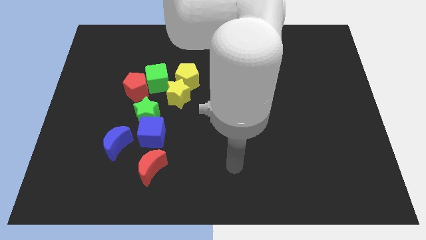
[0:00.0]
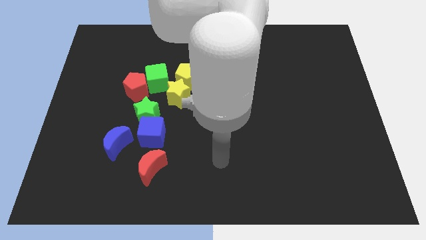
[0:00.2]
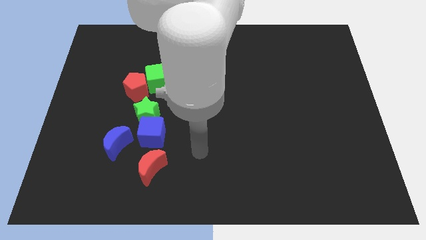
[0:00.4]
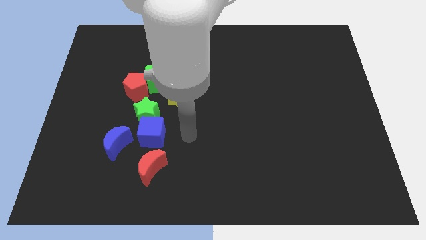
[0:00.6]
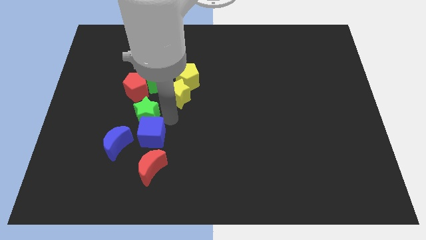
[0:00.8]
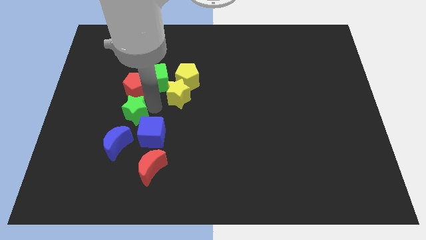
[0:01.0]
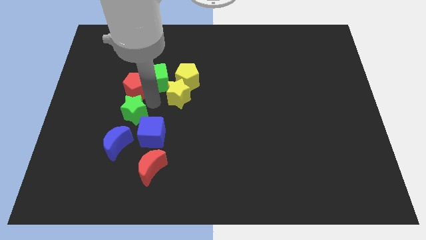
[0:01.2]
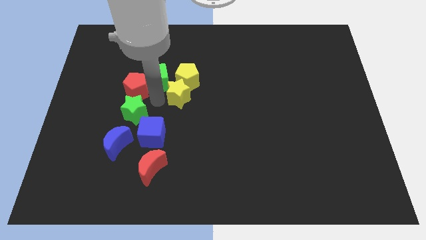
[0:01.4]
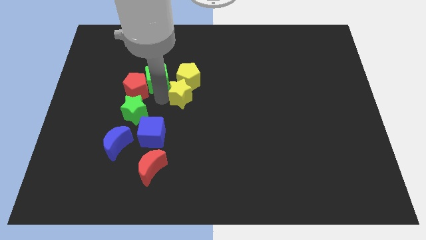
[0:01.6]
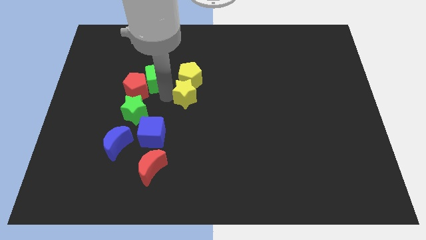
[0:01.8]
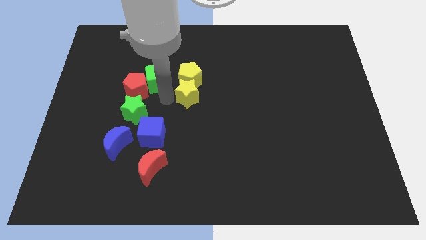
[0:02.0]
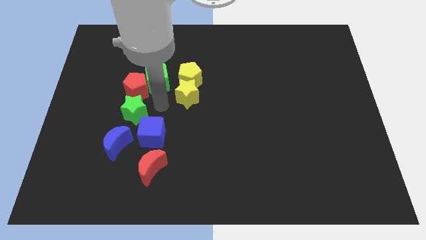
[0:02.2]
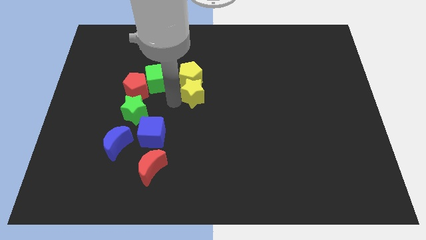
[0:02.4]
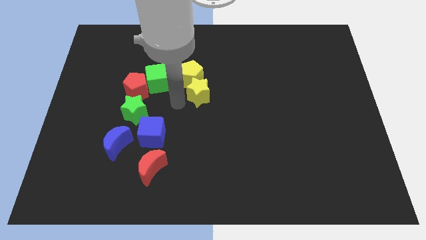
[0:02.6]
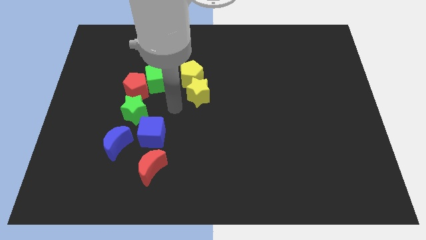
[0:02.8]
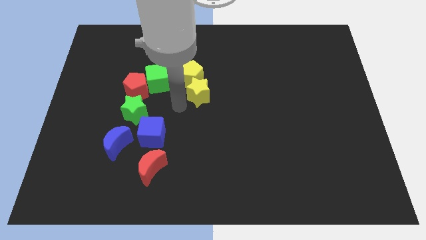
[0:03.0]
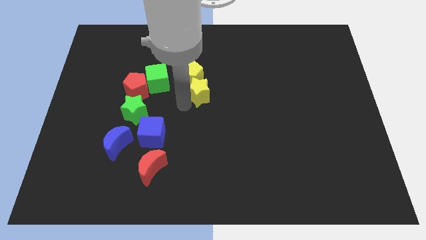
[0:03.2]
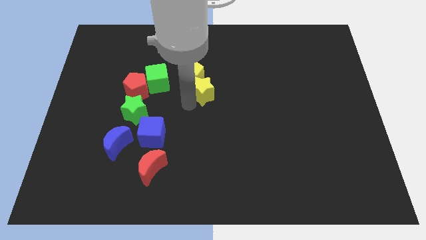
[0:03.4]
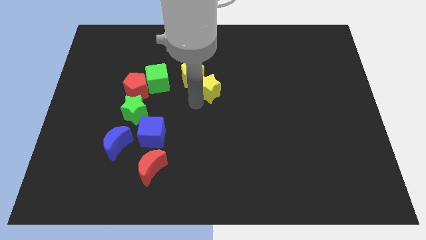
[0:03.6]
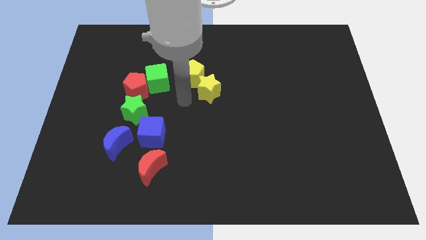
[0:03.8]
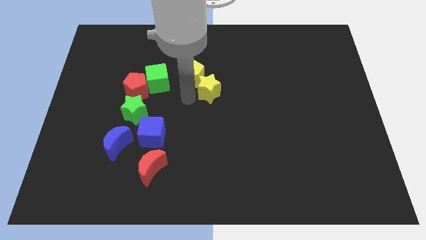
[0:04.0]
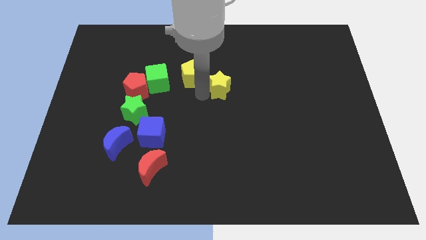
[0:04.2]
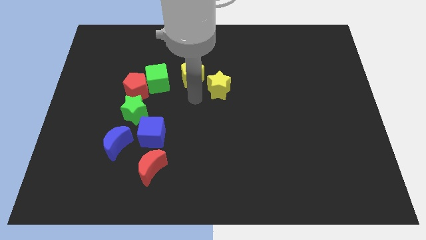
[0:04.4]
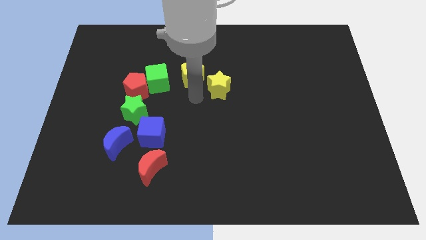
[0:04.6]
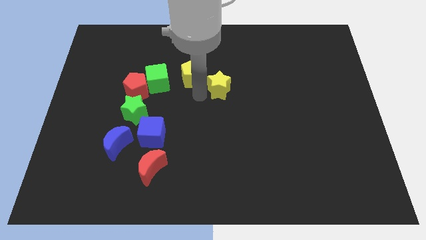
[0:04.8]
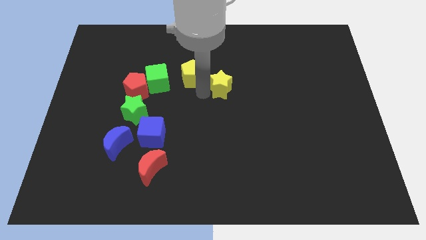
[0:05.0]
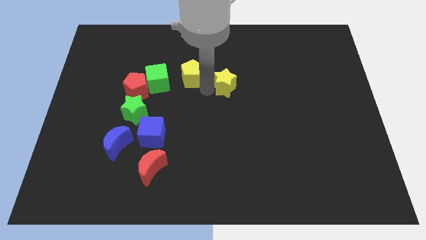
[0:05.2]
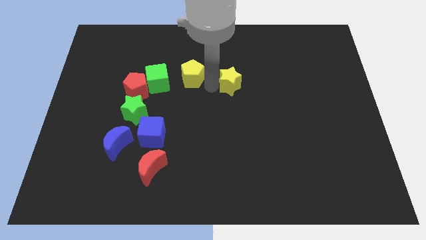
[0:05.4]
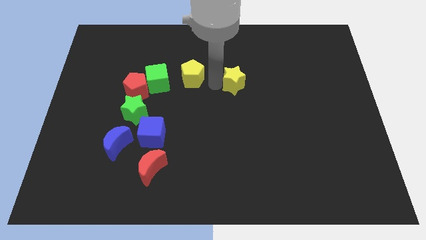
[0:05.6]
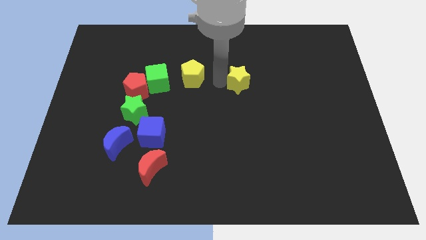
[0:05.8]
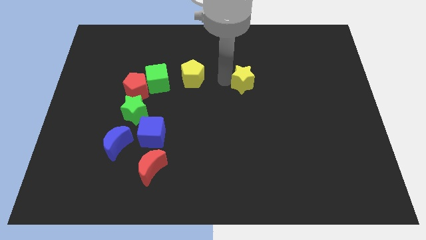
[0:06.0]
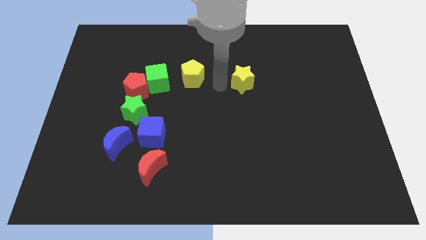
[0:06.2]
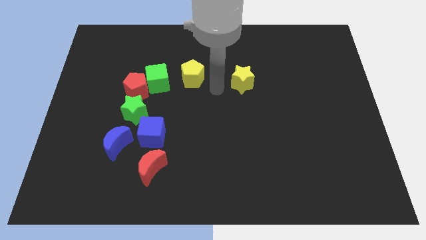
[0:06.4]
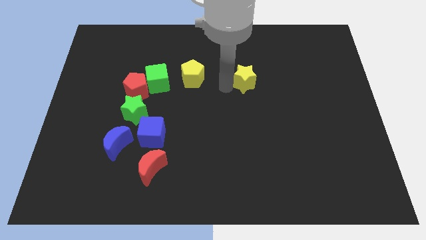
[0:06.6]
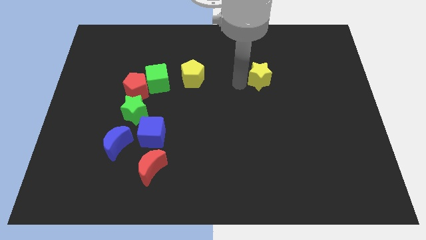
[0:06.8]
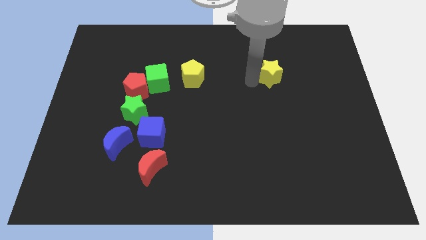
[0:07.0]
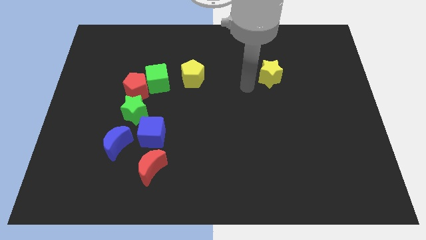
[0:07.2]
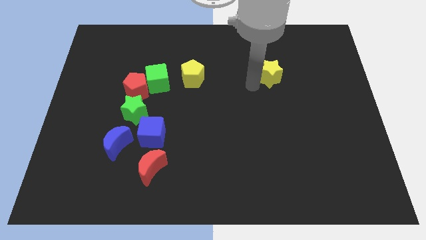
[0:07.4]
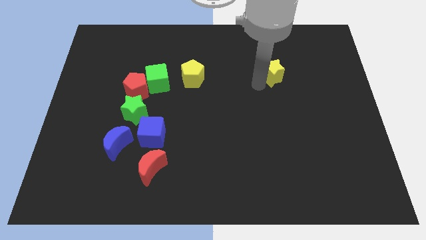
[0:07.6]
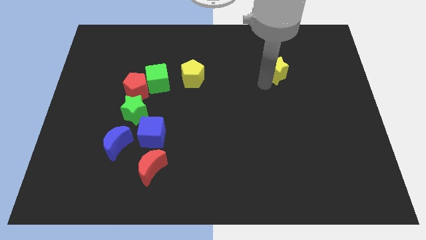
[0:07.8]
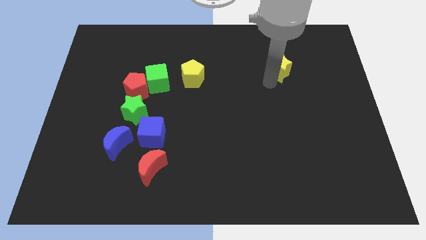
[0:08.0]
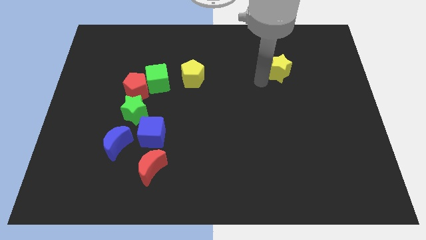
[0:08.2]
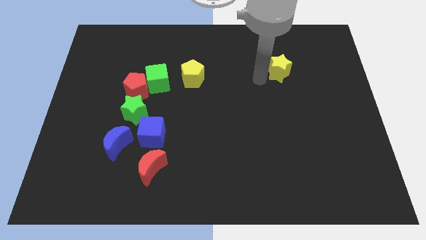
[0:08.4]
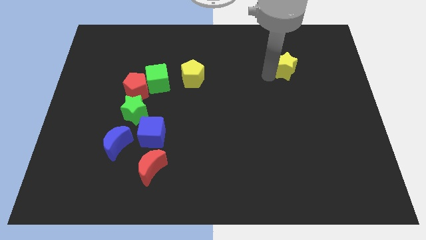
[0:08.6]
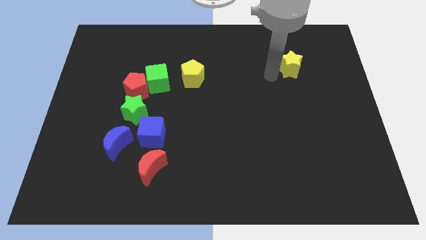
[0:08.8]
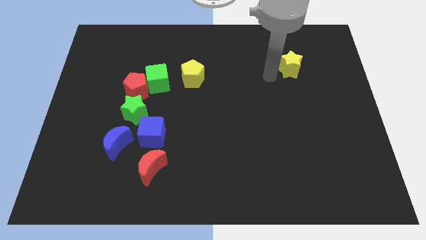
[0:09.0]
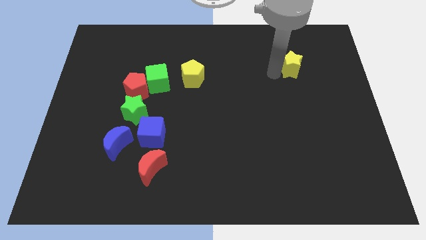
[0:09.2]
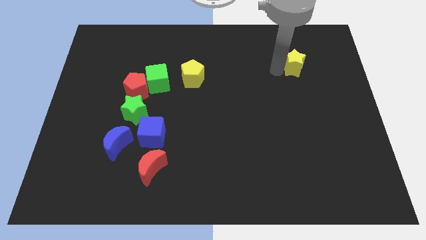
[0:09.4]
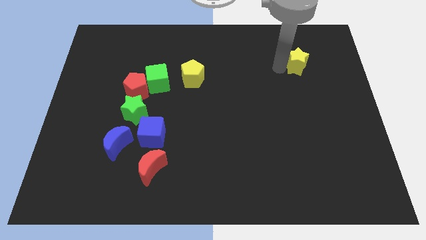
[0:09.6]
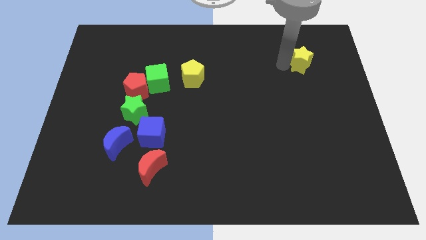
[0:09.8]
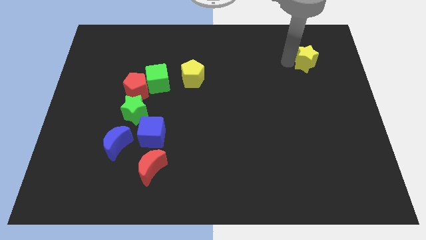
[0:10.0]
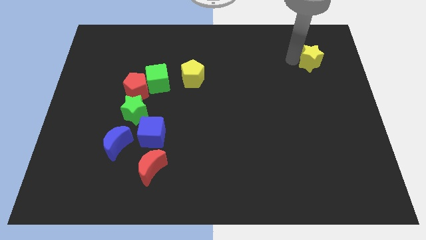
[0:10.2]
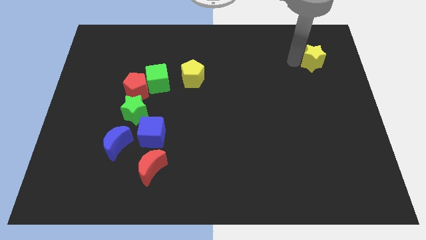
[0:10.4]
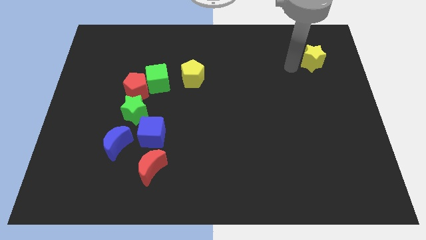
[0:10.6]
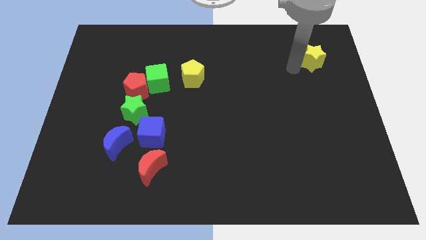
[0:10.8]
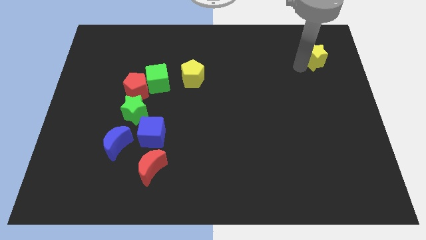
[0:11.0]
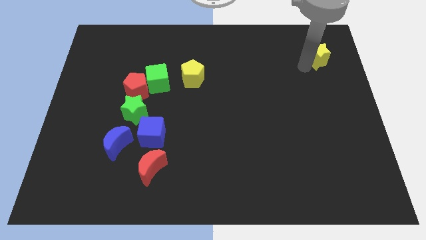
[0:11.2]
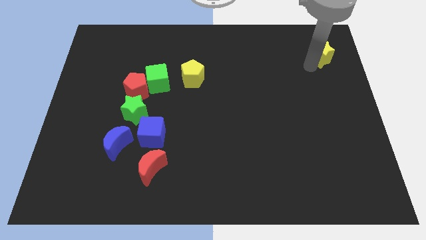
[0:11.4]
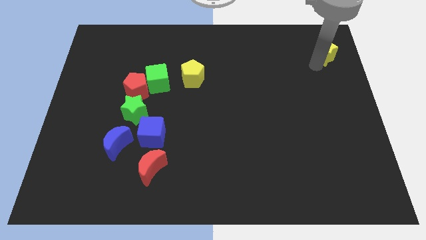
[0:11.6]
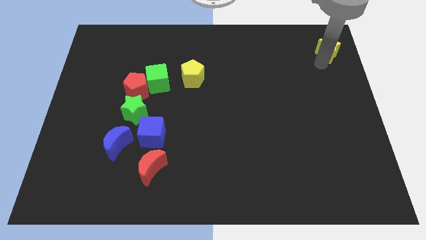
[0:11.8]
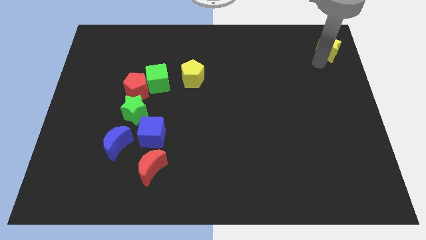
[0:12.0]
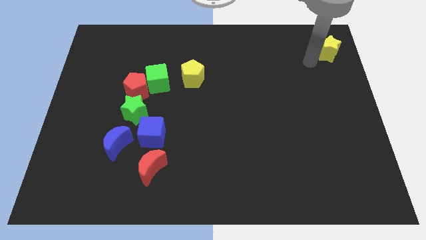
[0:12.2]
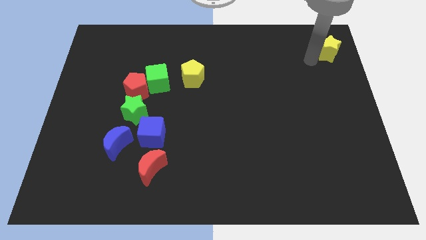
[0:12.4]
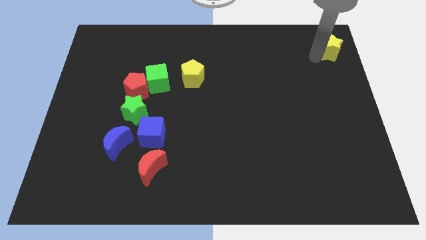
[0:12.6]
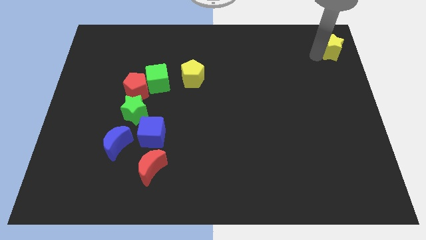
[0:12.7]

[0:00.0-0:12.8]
put the yellow star to the upper right corner

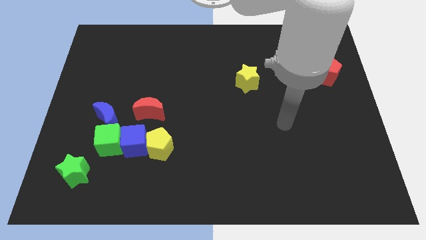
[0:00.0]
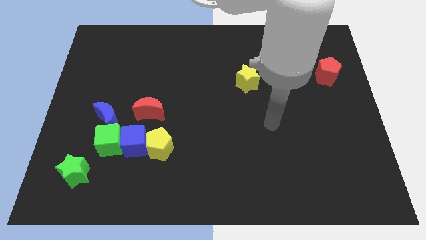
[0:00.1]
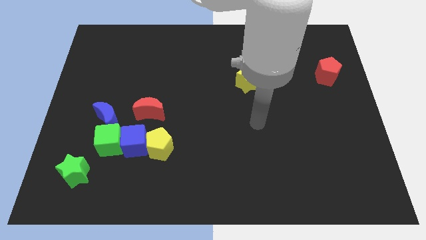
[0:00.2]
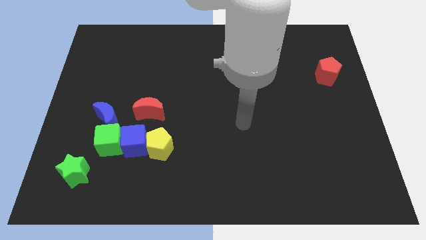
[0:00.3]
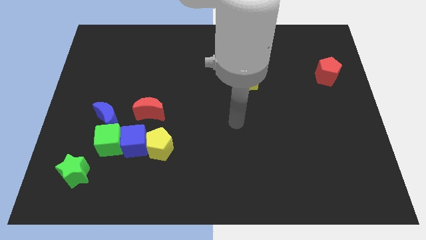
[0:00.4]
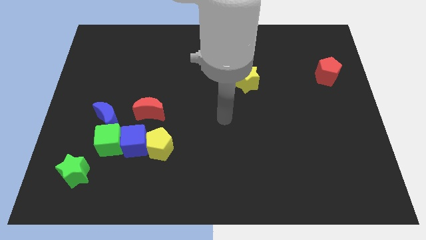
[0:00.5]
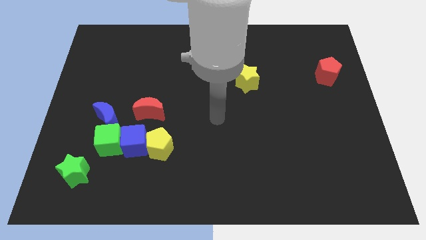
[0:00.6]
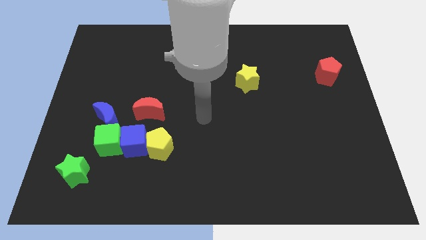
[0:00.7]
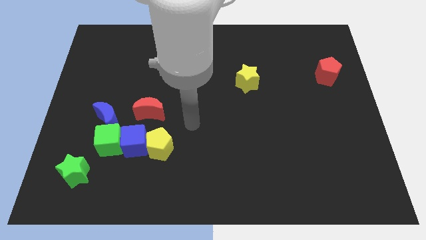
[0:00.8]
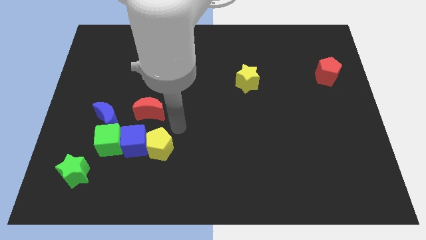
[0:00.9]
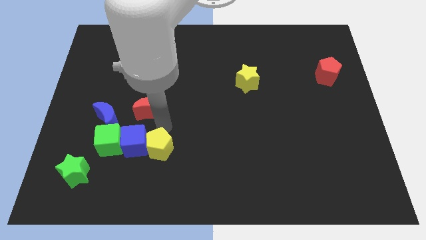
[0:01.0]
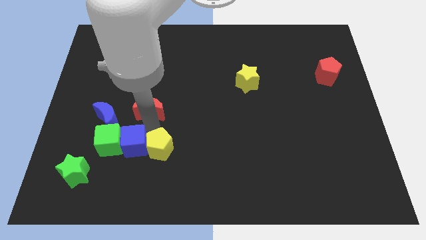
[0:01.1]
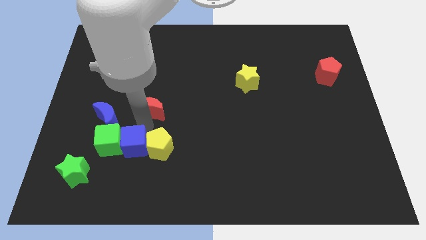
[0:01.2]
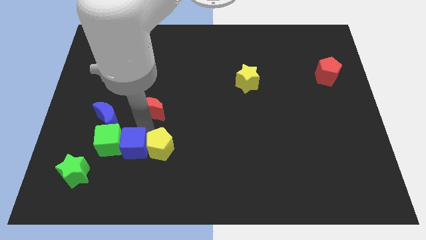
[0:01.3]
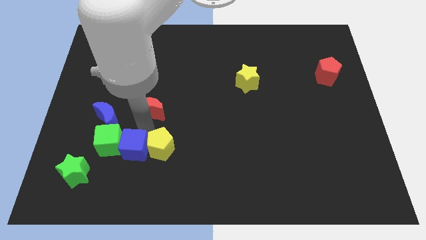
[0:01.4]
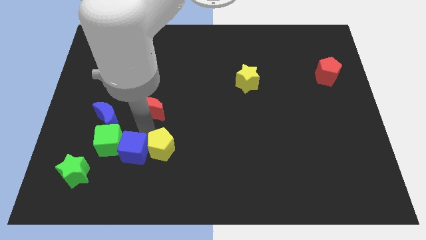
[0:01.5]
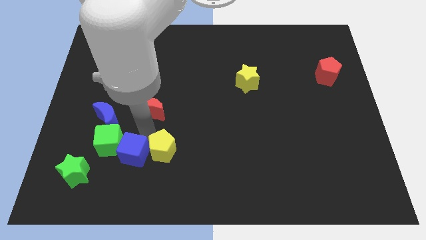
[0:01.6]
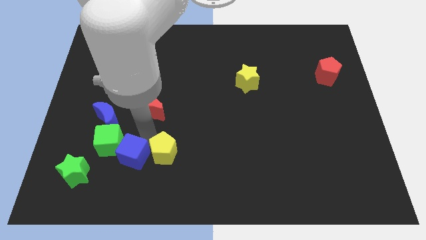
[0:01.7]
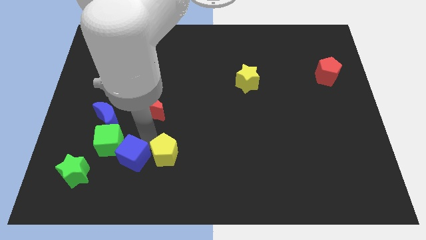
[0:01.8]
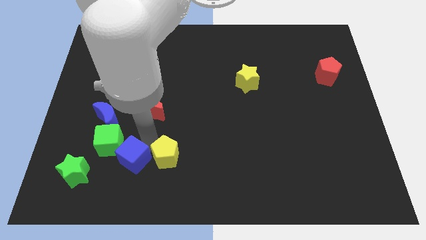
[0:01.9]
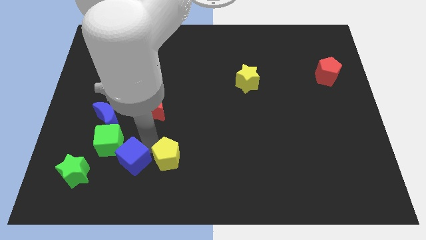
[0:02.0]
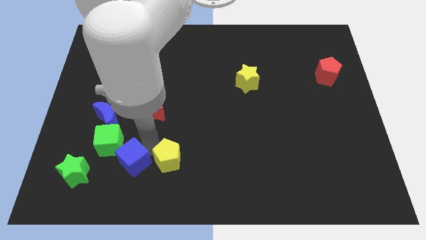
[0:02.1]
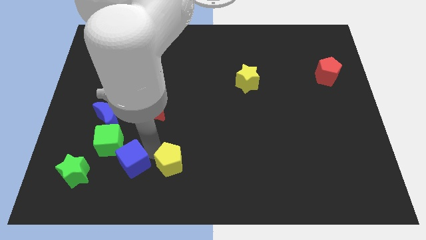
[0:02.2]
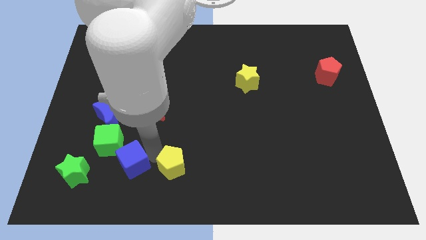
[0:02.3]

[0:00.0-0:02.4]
slide the yellow pentagon to the bottom
